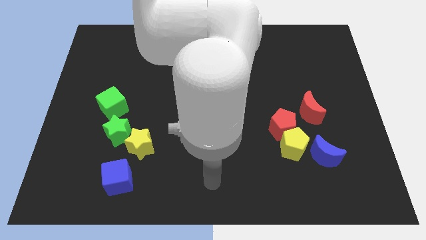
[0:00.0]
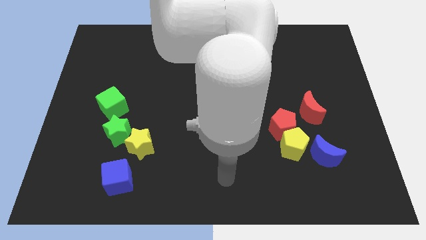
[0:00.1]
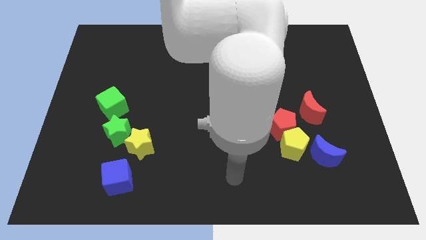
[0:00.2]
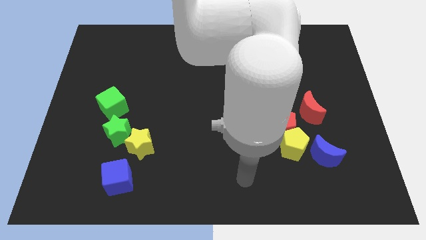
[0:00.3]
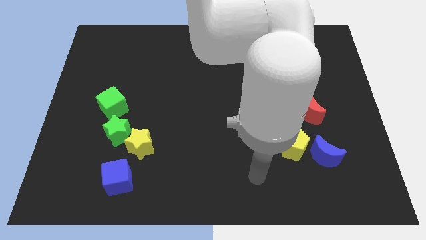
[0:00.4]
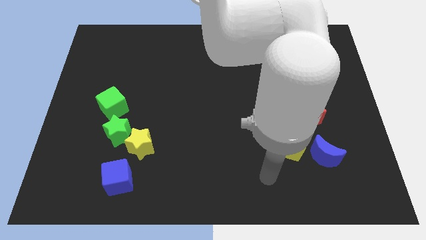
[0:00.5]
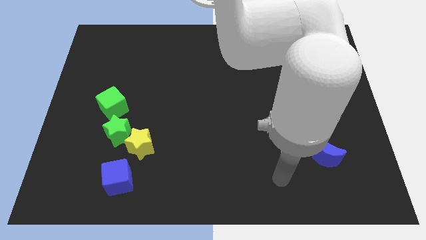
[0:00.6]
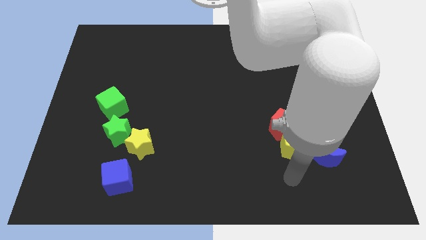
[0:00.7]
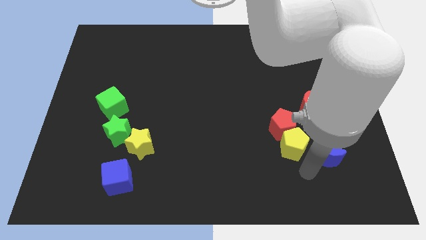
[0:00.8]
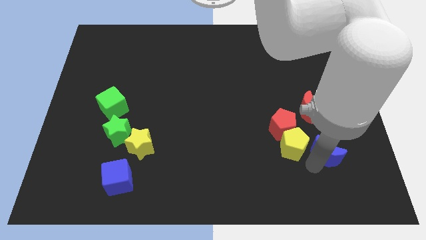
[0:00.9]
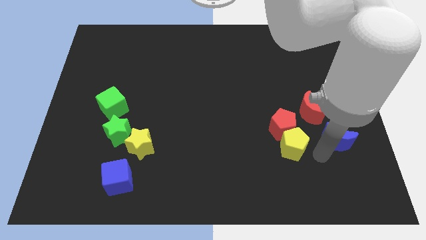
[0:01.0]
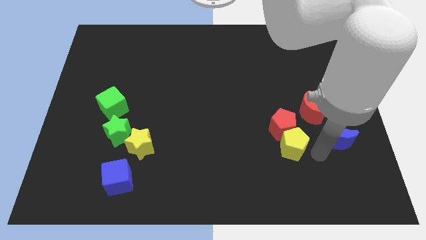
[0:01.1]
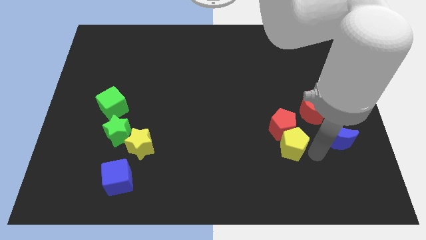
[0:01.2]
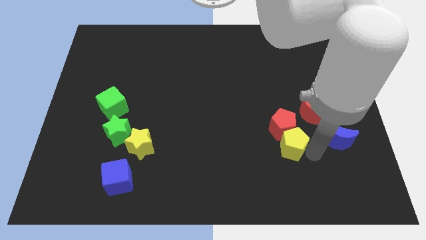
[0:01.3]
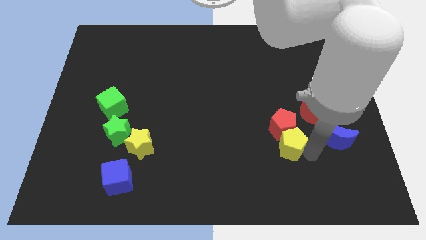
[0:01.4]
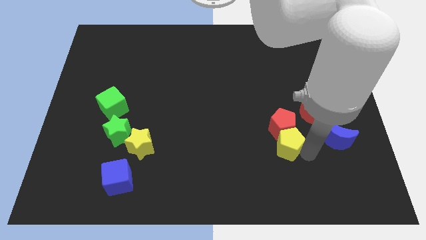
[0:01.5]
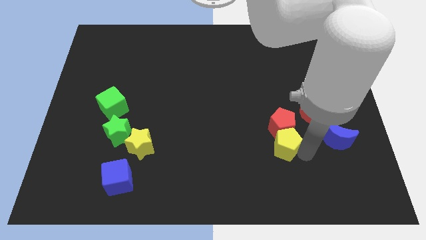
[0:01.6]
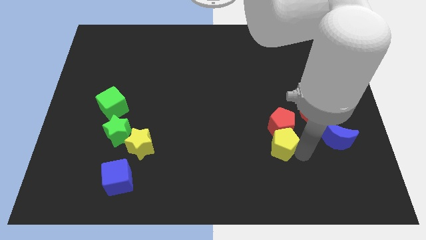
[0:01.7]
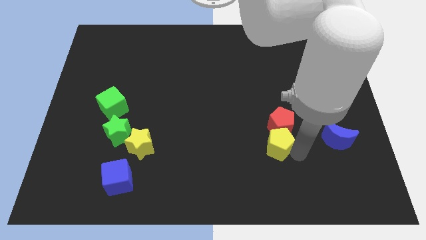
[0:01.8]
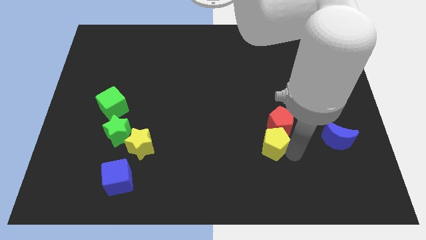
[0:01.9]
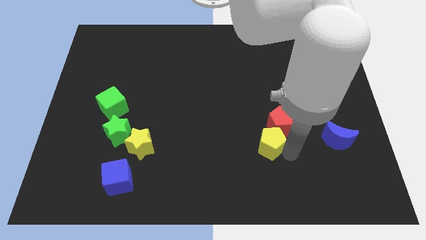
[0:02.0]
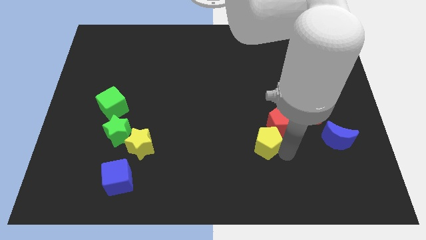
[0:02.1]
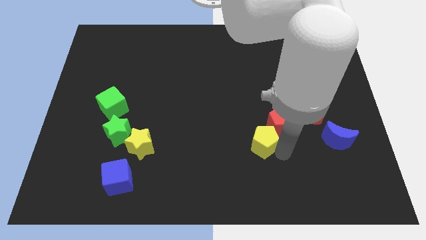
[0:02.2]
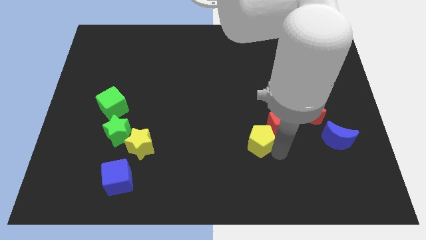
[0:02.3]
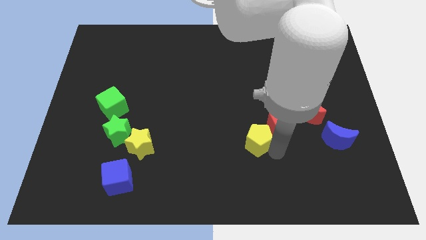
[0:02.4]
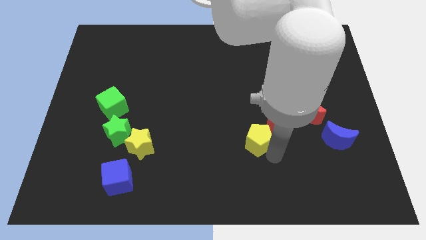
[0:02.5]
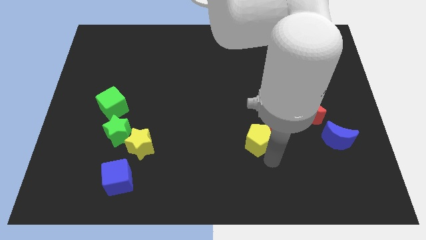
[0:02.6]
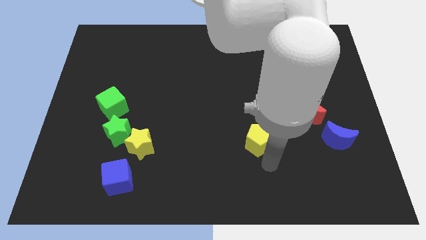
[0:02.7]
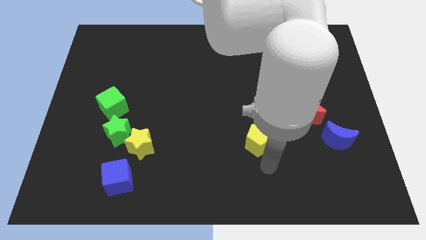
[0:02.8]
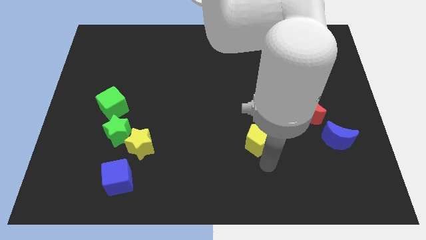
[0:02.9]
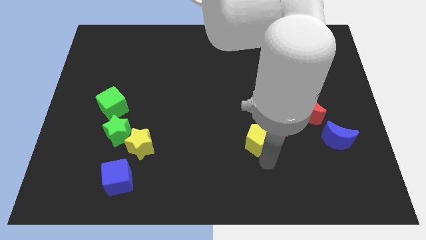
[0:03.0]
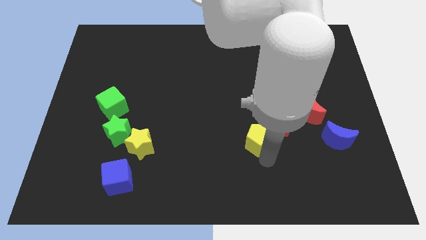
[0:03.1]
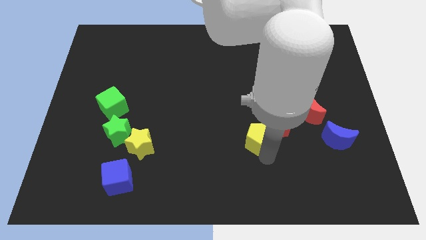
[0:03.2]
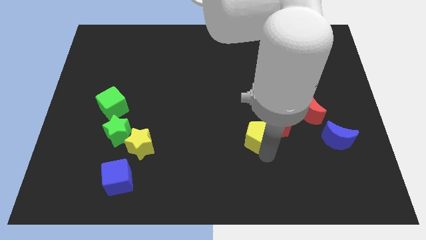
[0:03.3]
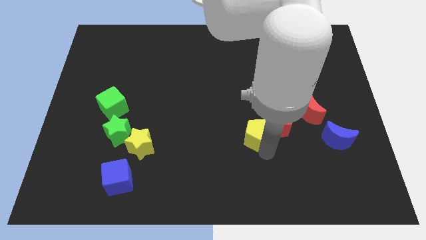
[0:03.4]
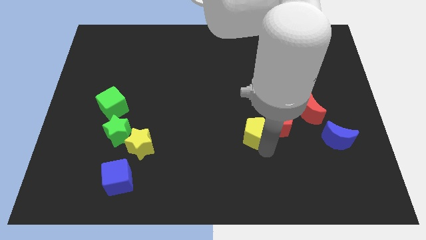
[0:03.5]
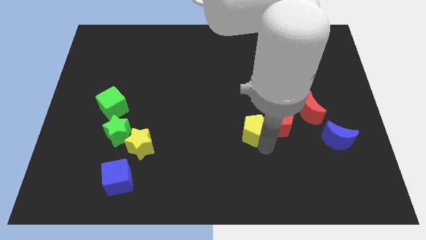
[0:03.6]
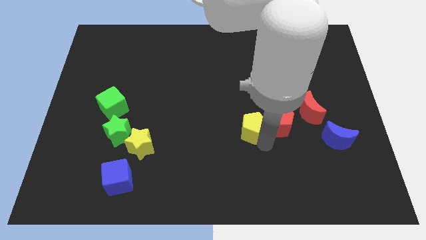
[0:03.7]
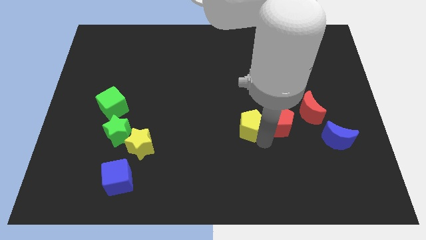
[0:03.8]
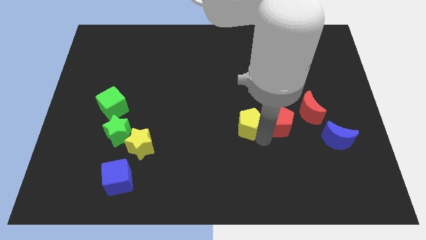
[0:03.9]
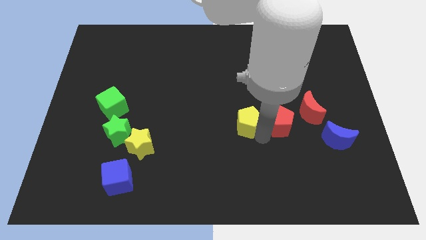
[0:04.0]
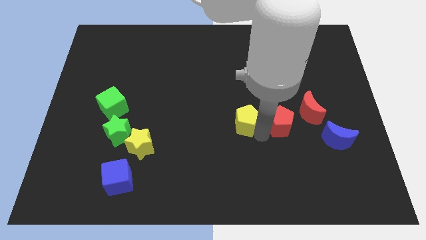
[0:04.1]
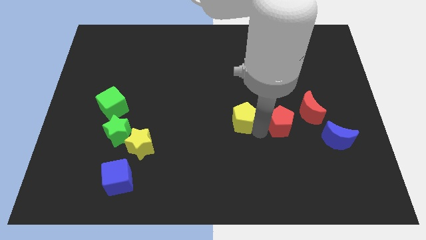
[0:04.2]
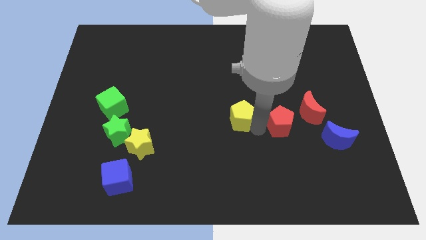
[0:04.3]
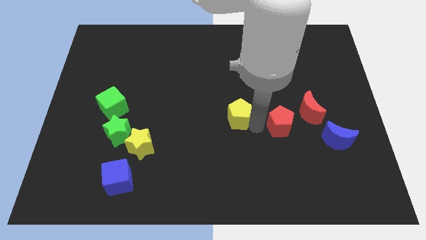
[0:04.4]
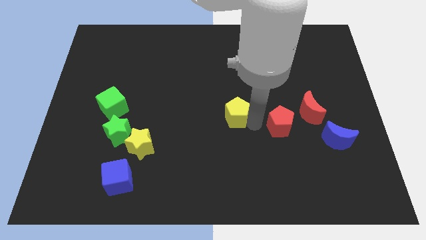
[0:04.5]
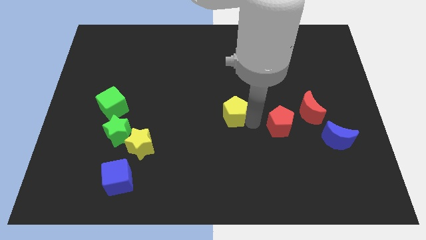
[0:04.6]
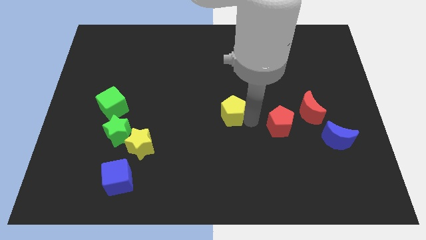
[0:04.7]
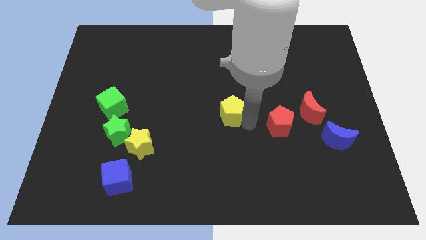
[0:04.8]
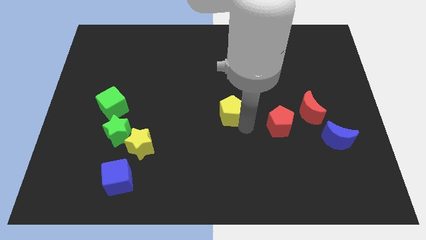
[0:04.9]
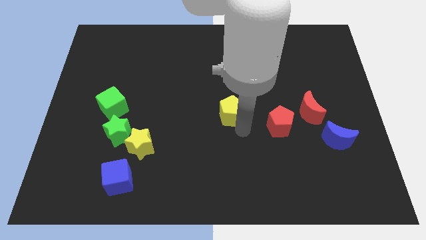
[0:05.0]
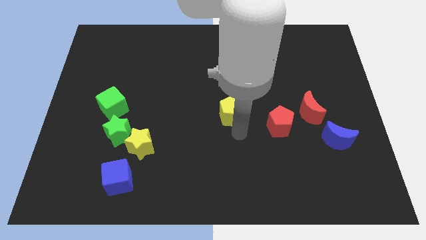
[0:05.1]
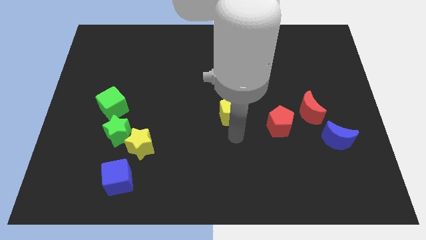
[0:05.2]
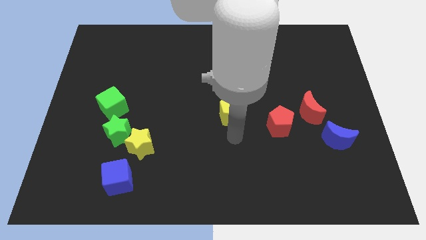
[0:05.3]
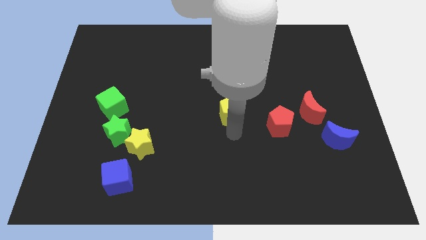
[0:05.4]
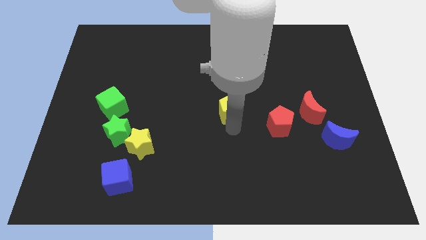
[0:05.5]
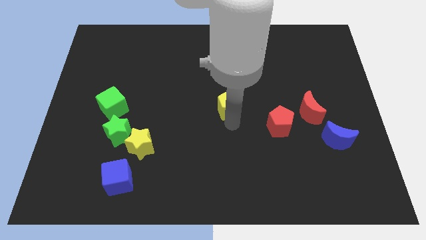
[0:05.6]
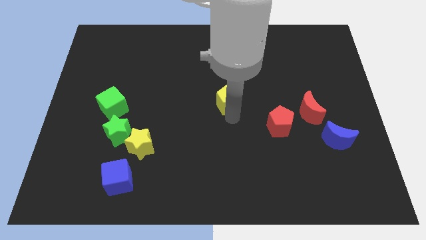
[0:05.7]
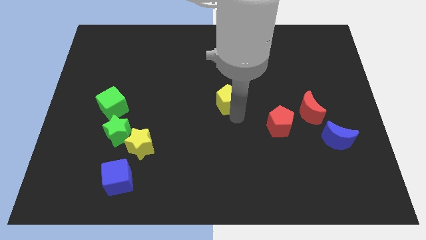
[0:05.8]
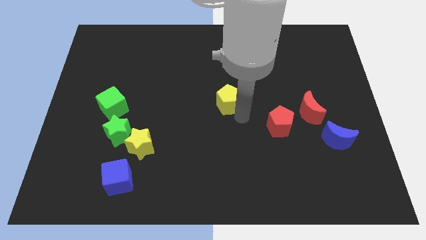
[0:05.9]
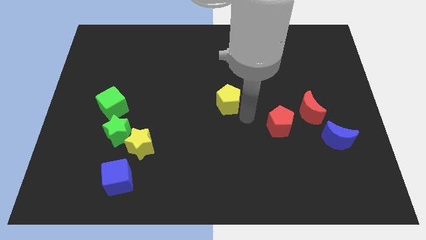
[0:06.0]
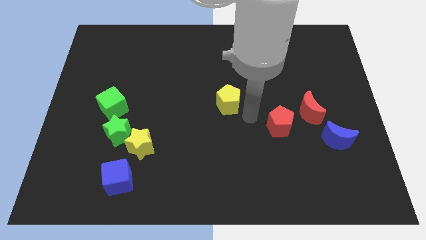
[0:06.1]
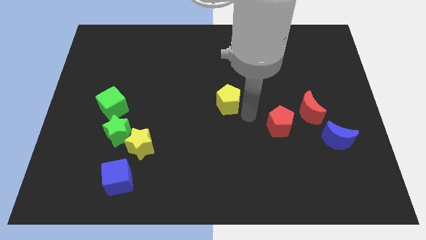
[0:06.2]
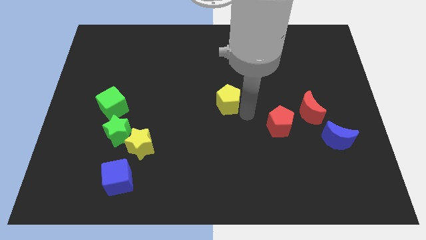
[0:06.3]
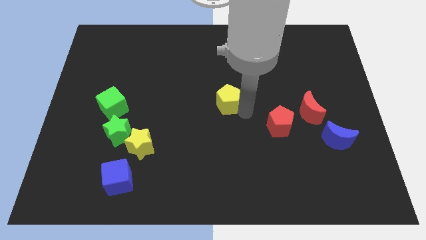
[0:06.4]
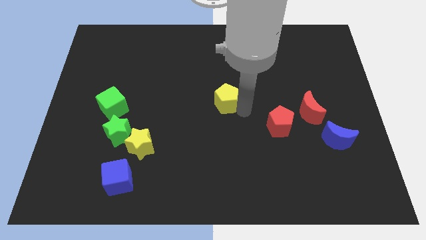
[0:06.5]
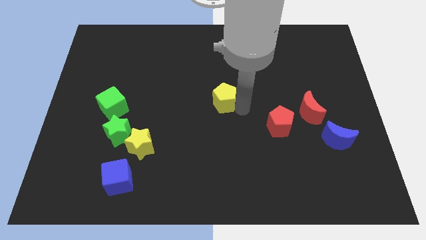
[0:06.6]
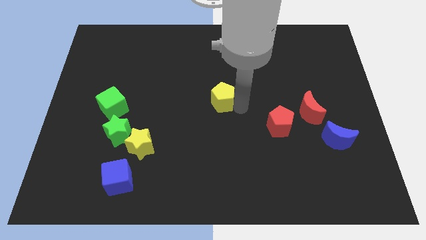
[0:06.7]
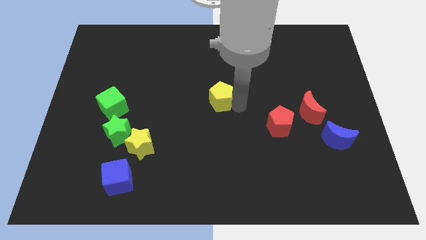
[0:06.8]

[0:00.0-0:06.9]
slide the yellow pentagon diagonally upwards and left

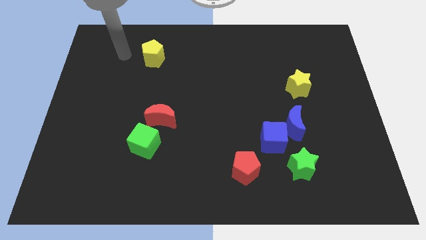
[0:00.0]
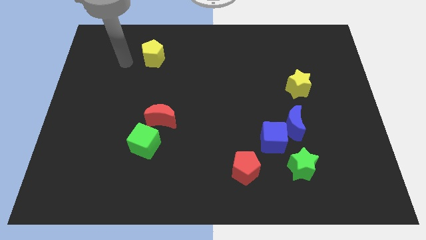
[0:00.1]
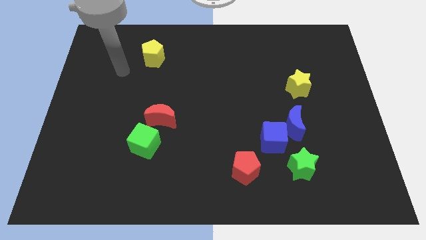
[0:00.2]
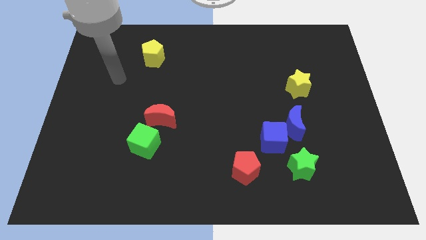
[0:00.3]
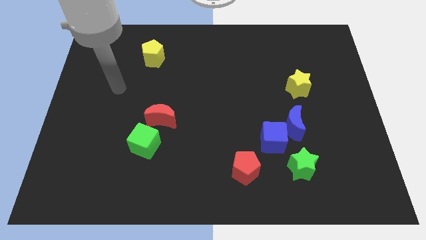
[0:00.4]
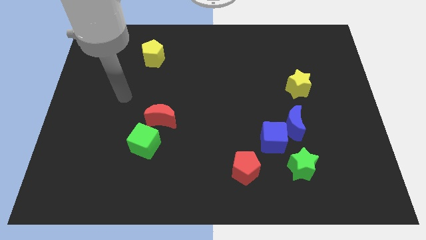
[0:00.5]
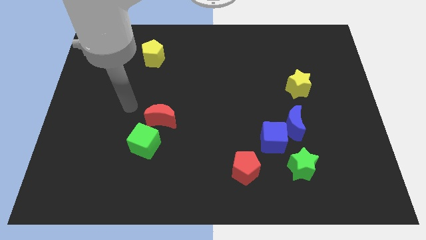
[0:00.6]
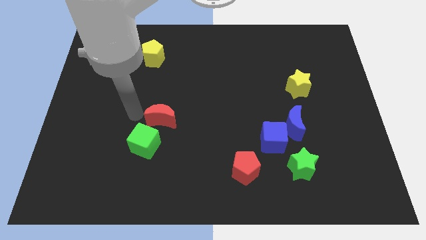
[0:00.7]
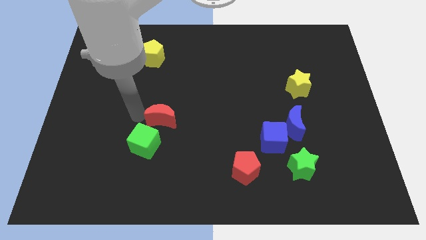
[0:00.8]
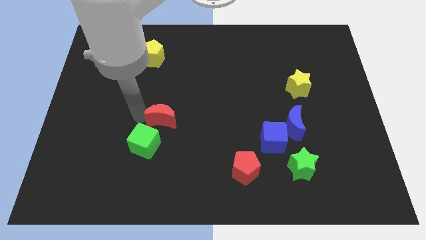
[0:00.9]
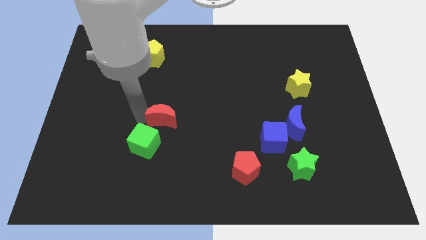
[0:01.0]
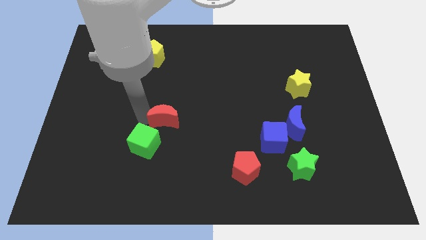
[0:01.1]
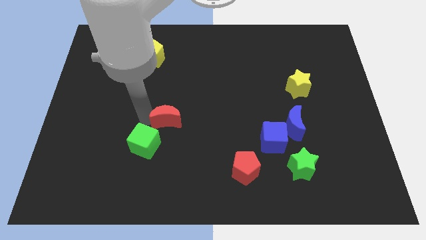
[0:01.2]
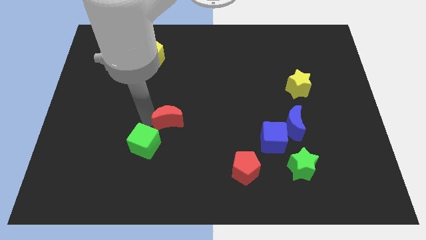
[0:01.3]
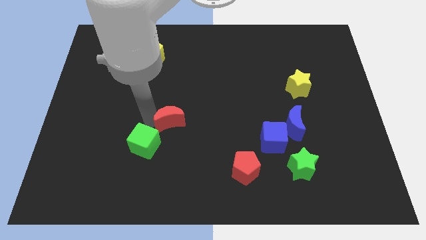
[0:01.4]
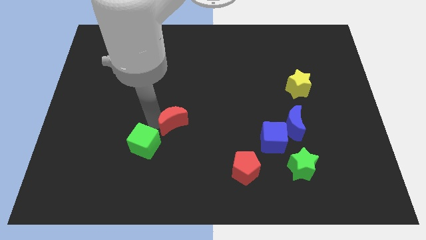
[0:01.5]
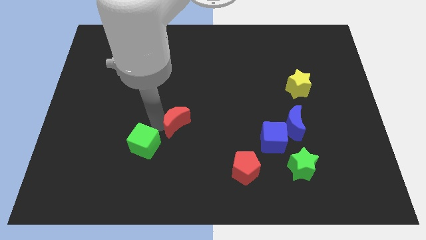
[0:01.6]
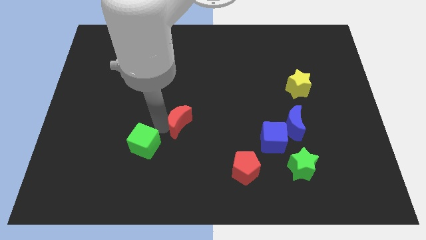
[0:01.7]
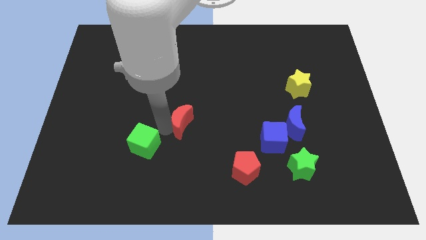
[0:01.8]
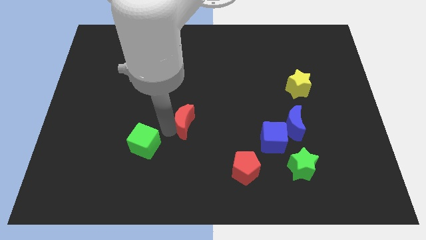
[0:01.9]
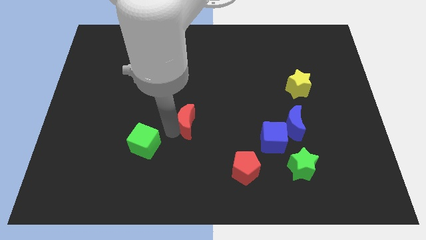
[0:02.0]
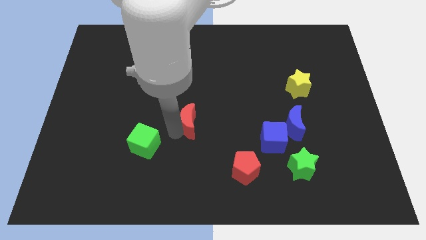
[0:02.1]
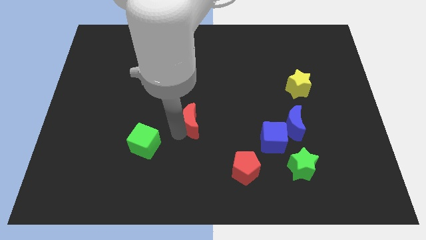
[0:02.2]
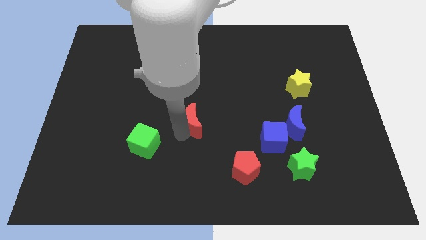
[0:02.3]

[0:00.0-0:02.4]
move the red moon to the right somewhat
